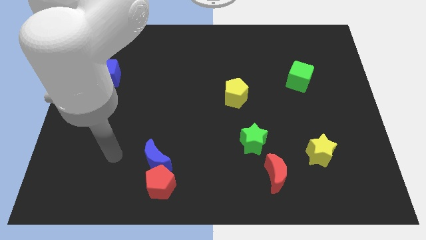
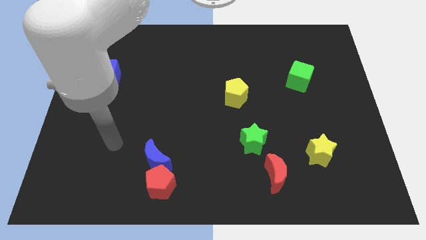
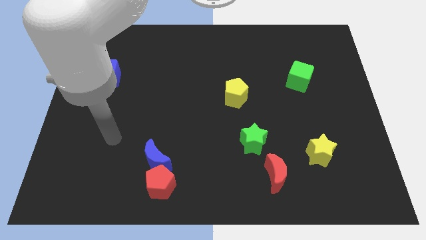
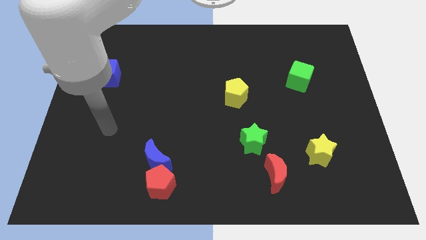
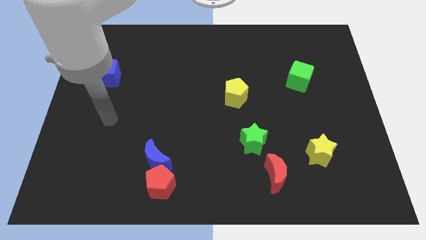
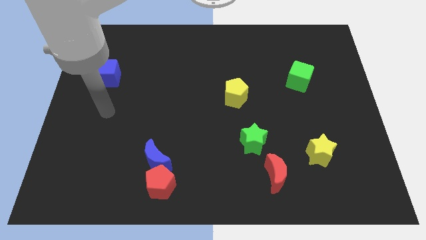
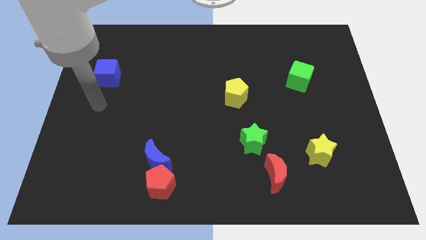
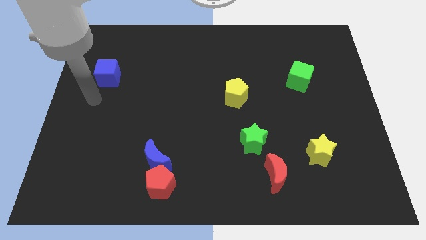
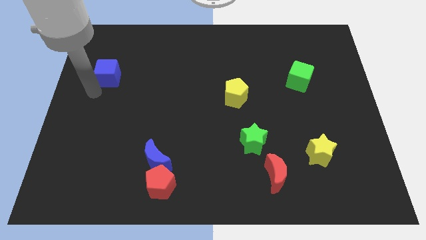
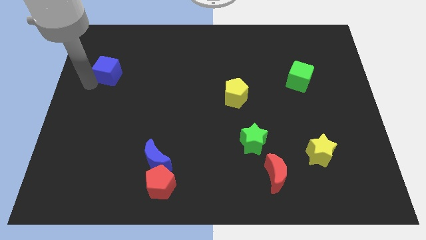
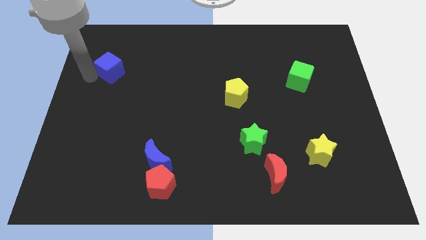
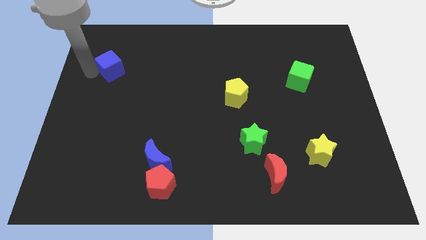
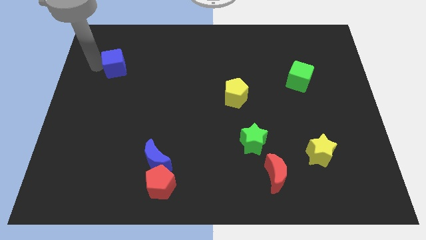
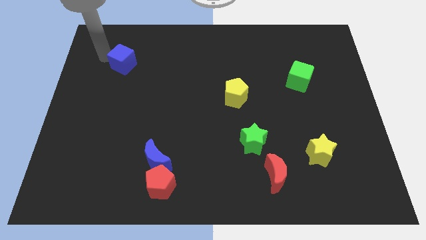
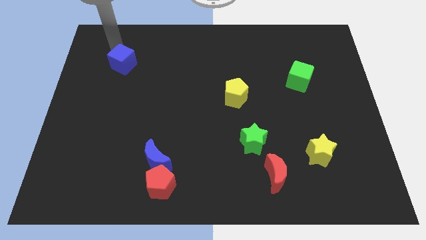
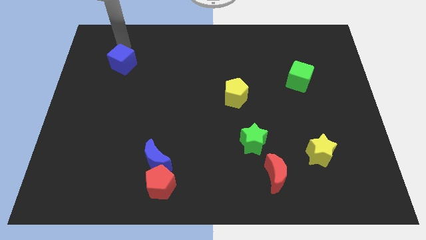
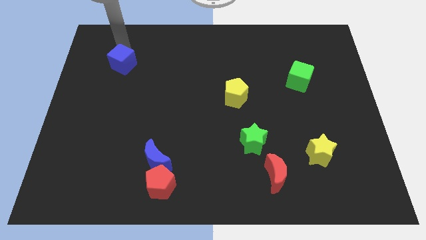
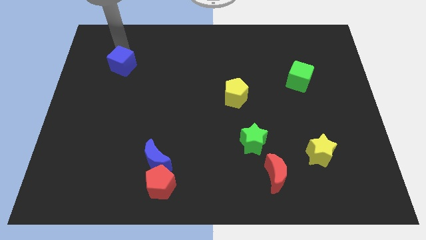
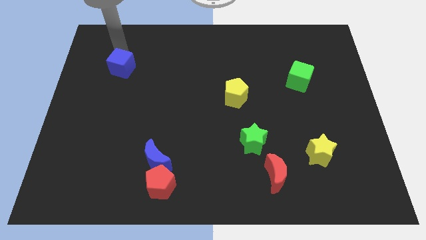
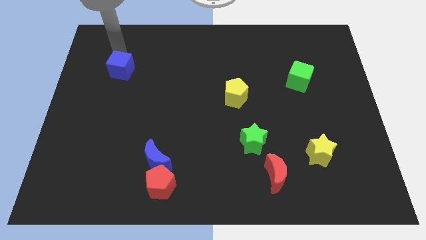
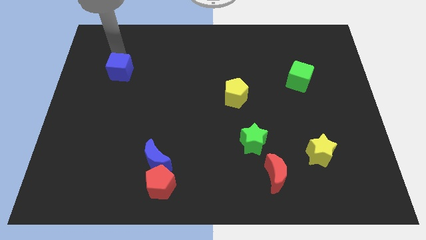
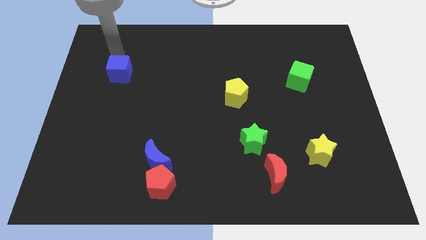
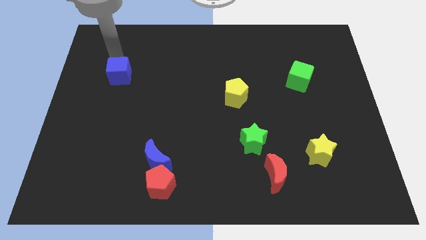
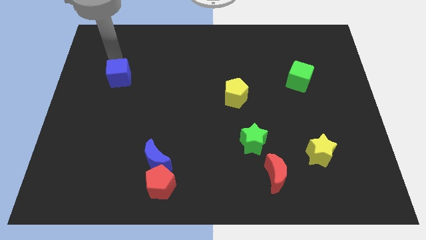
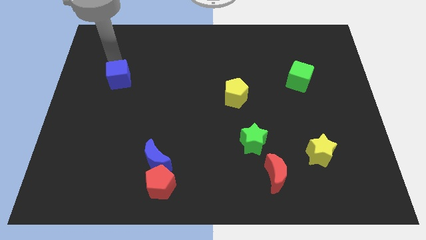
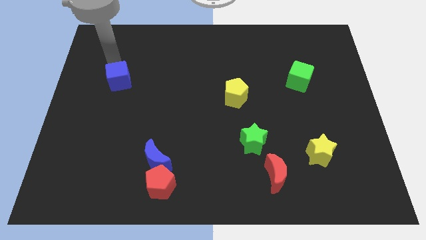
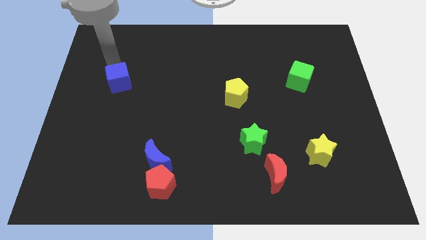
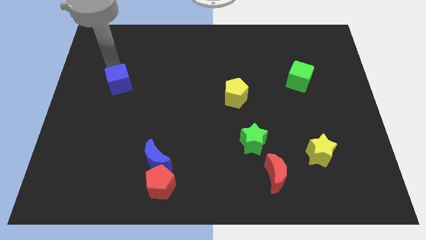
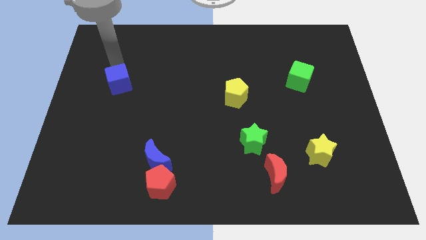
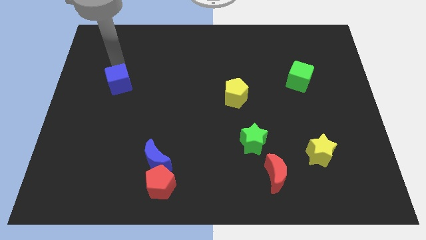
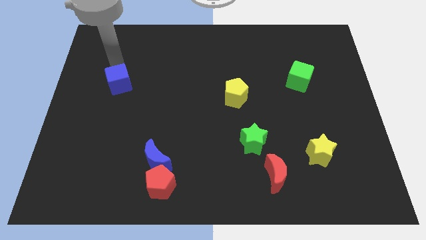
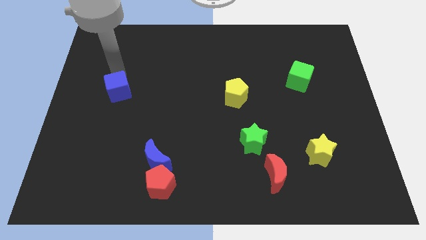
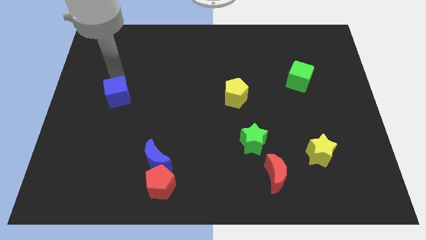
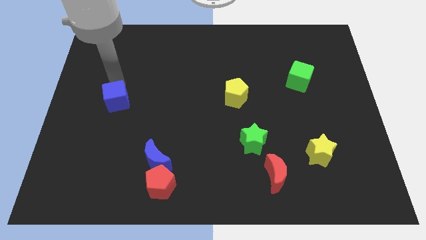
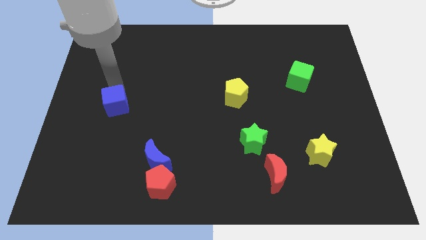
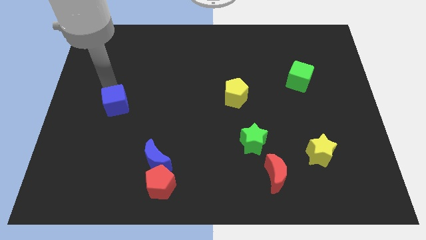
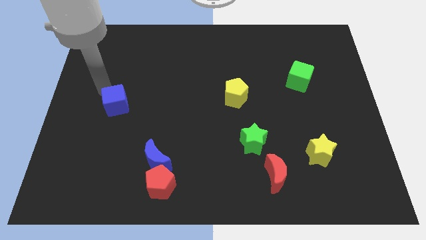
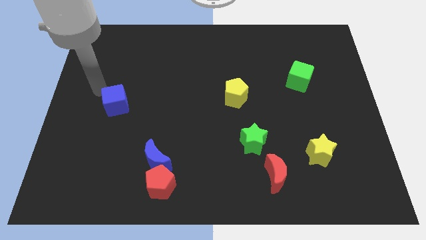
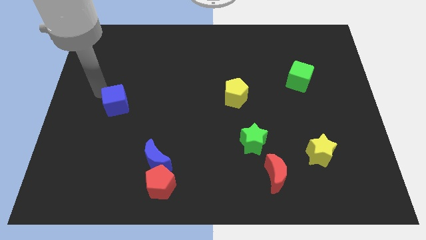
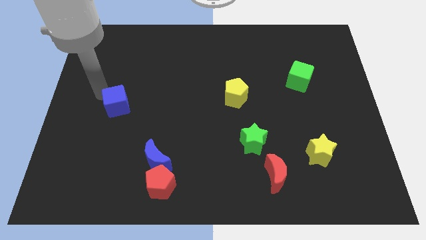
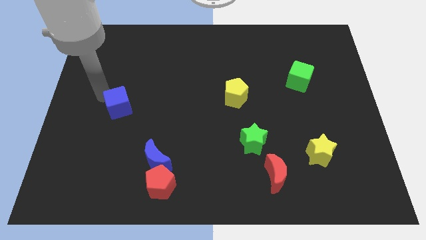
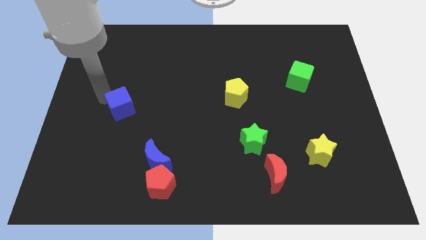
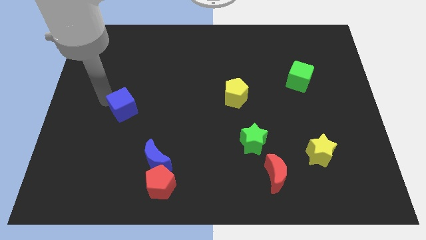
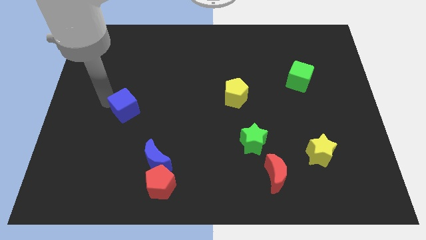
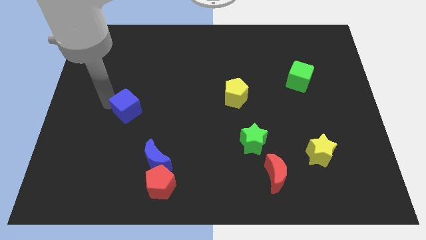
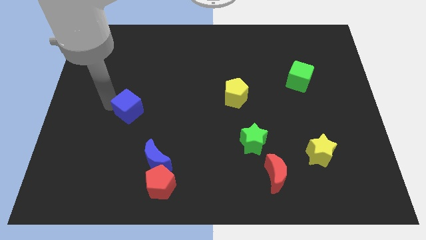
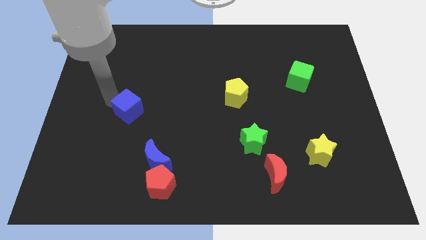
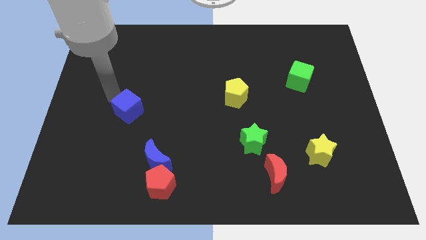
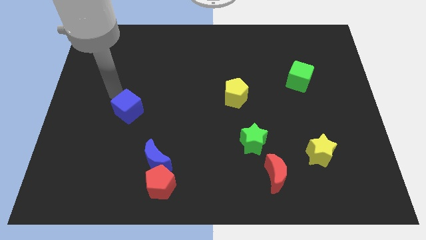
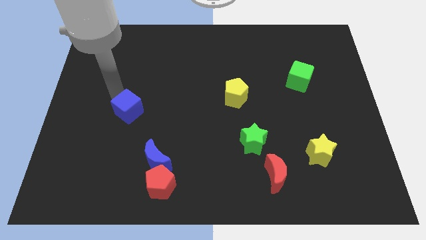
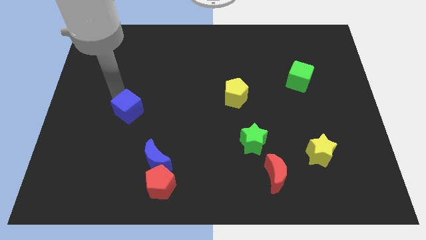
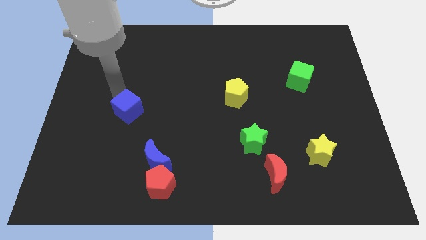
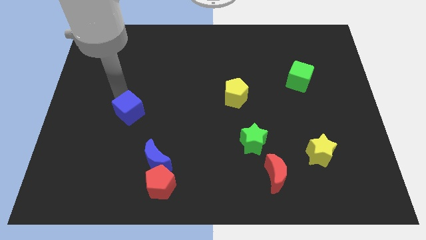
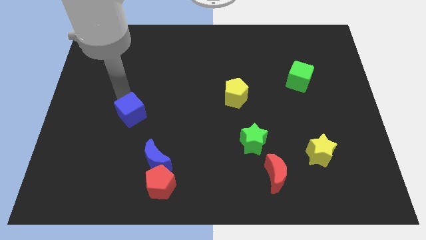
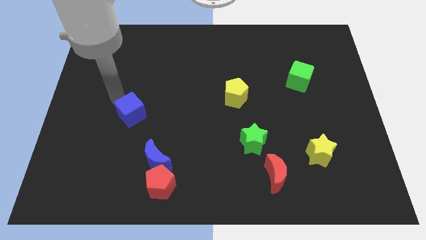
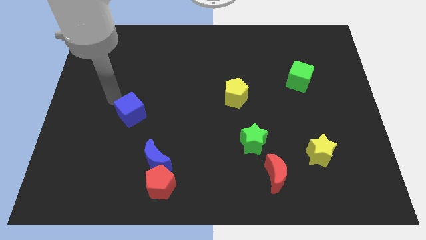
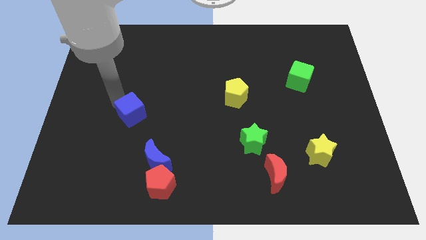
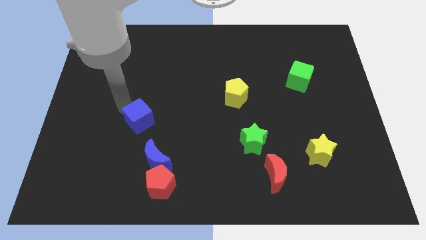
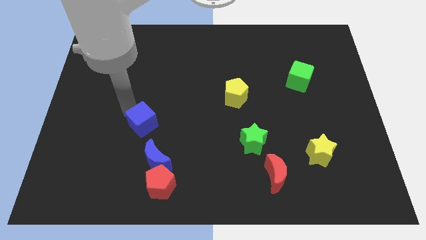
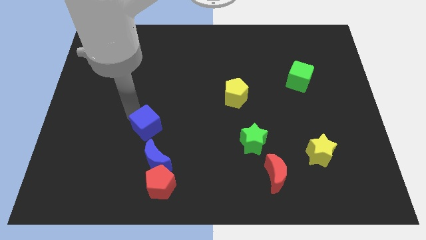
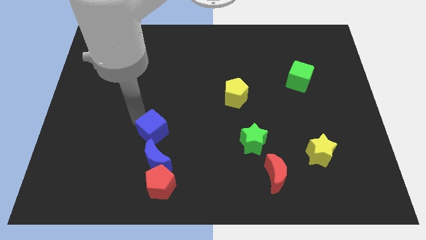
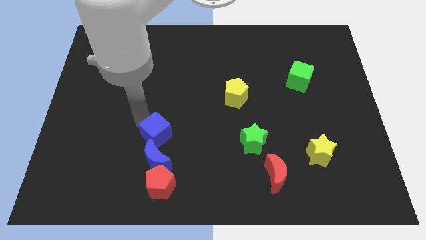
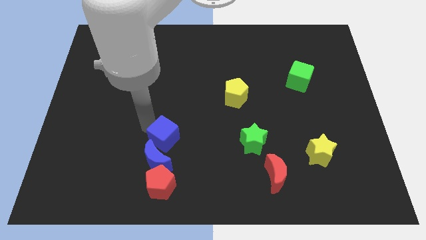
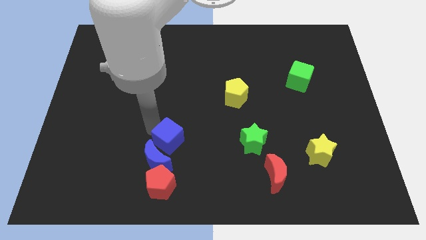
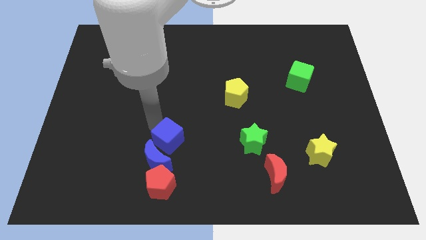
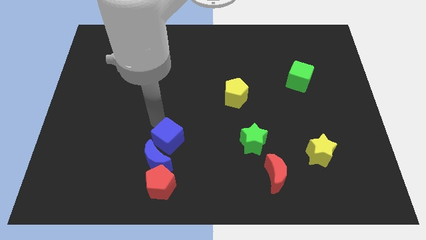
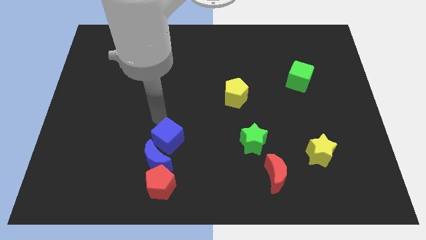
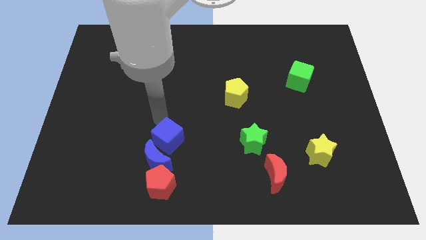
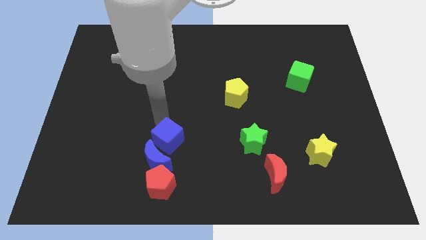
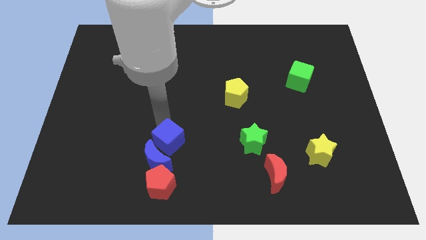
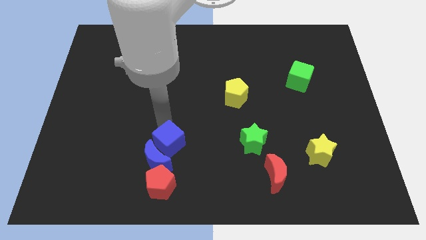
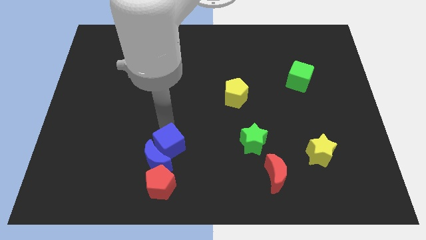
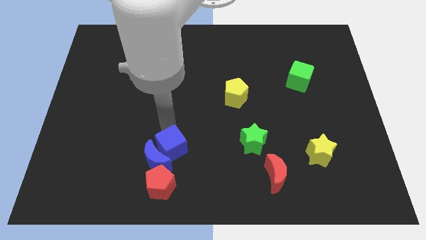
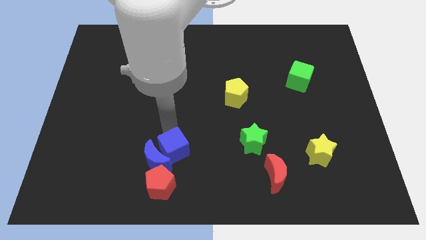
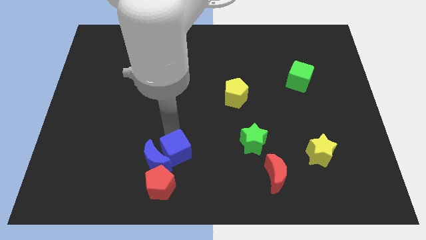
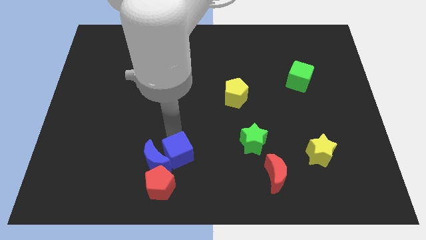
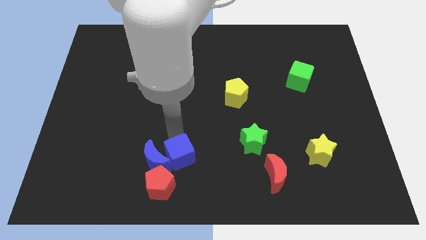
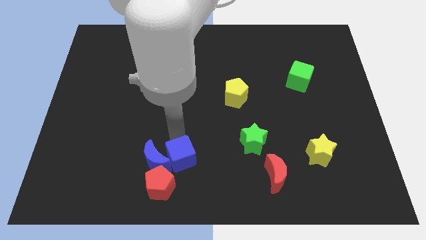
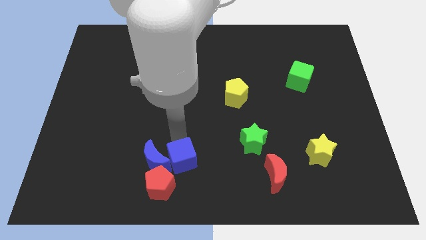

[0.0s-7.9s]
move the blue cube to the bottom side
